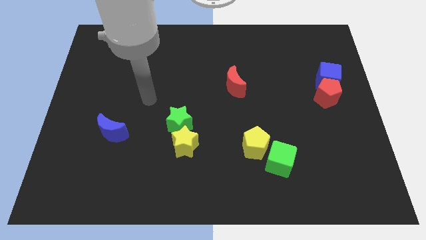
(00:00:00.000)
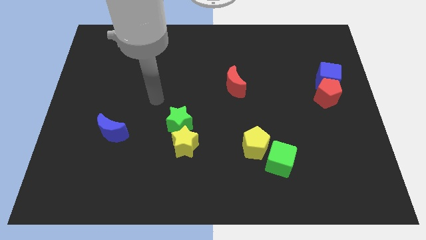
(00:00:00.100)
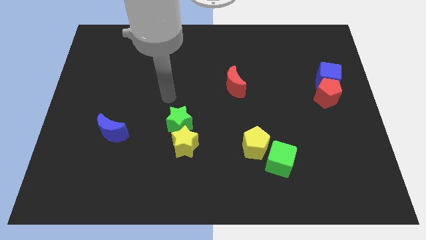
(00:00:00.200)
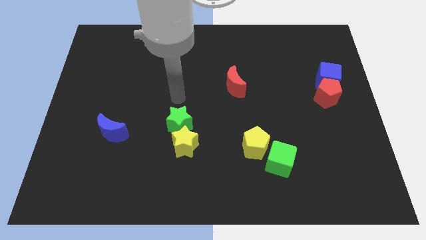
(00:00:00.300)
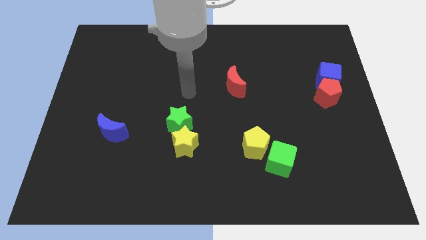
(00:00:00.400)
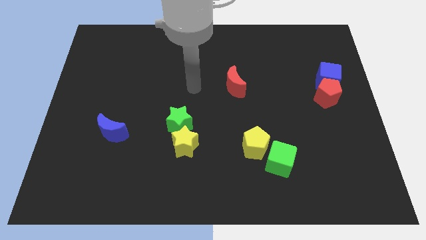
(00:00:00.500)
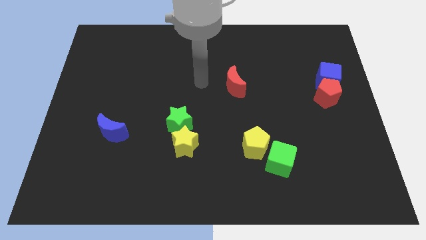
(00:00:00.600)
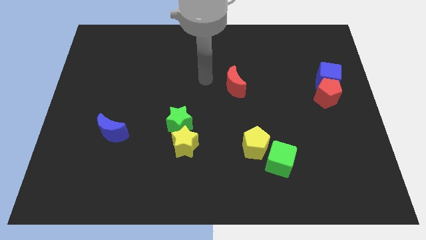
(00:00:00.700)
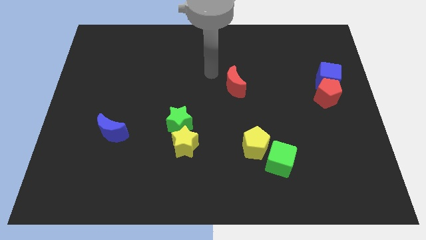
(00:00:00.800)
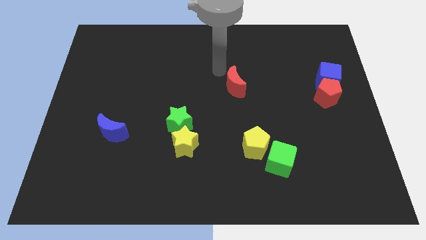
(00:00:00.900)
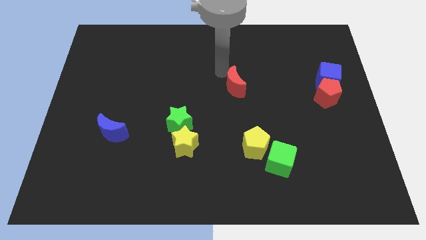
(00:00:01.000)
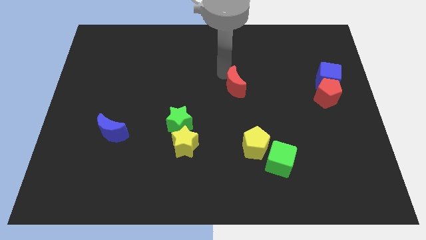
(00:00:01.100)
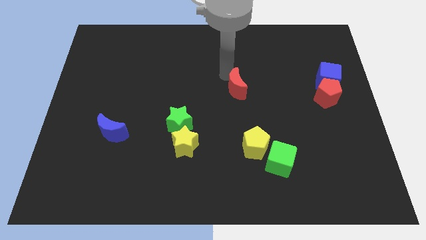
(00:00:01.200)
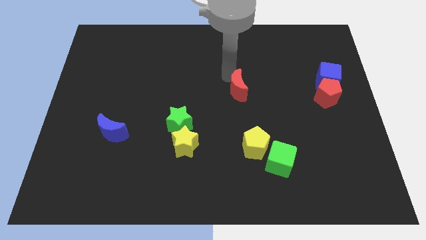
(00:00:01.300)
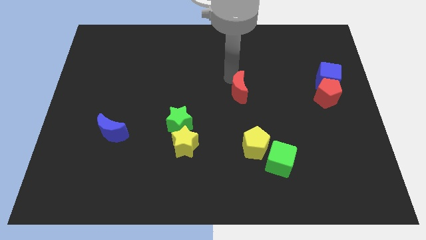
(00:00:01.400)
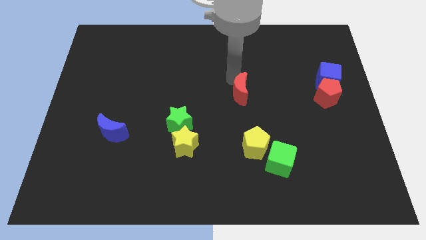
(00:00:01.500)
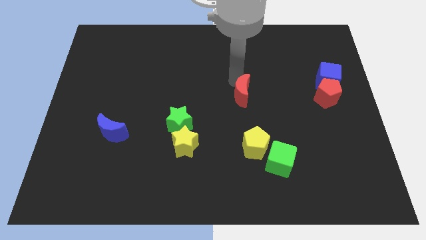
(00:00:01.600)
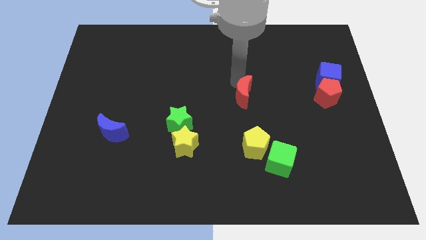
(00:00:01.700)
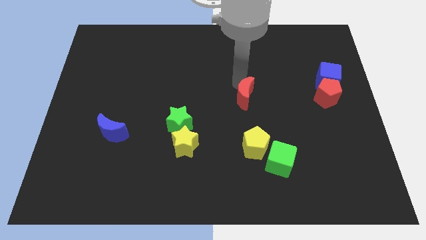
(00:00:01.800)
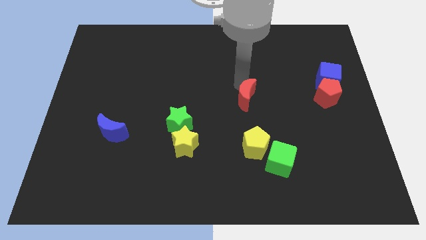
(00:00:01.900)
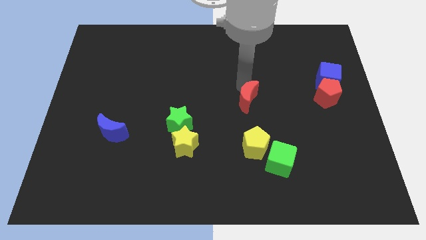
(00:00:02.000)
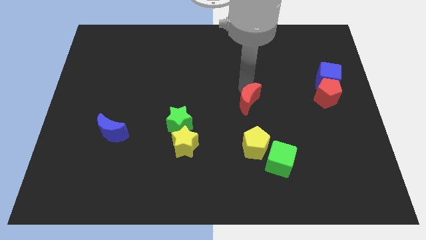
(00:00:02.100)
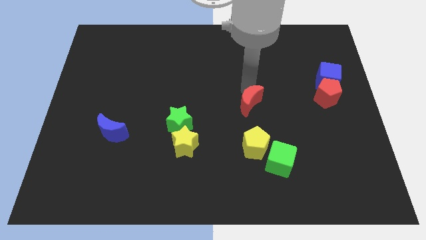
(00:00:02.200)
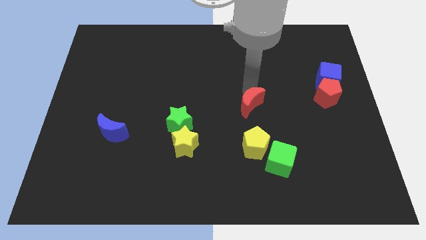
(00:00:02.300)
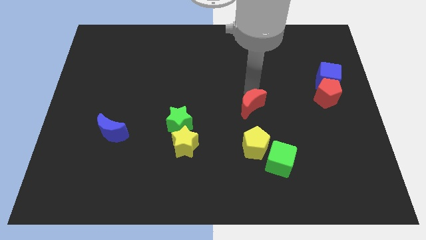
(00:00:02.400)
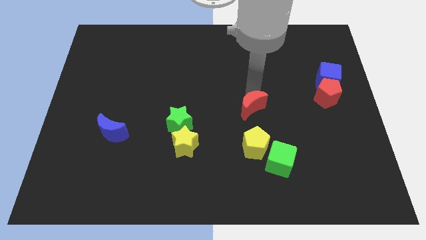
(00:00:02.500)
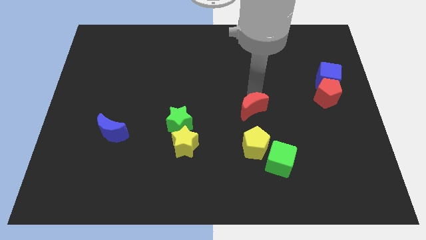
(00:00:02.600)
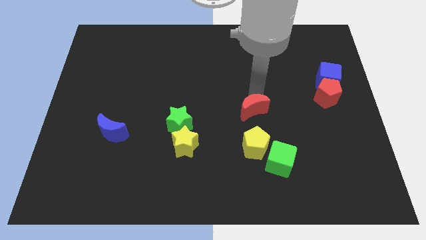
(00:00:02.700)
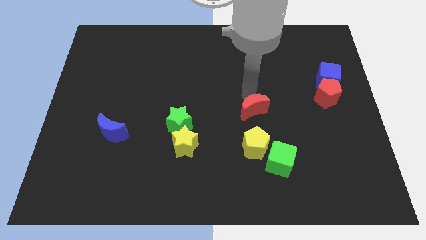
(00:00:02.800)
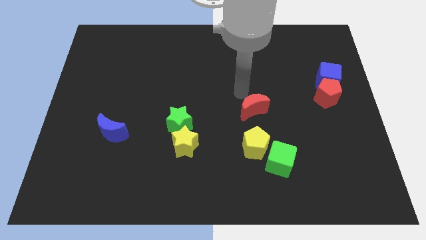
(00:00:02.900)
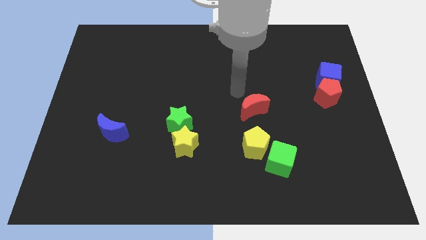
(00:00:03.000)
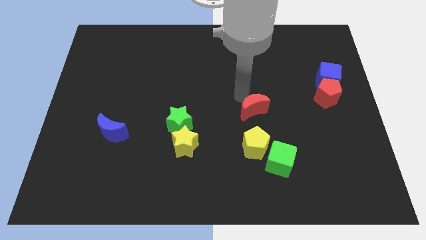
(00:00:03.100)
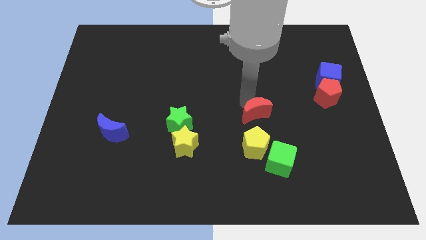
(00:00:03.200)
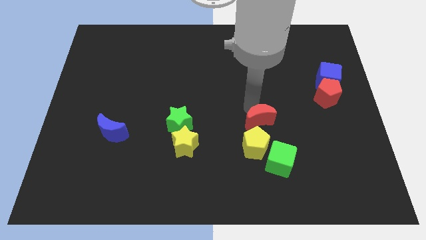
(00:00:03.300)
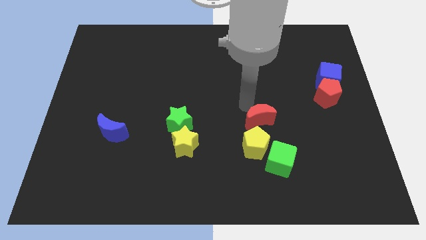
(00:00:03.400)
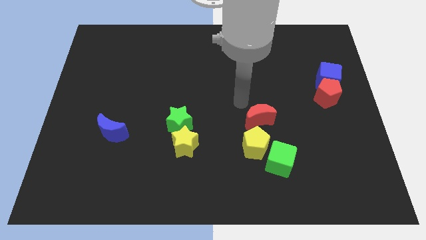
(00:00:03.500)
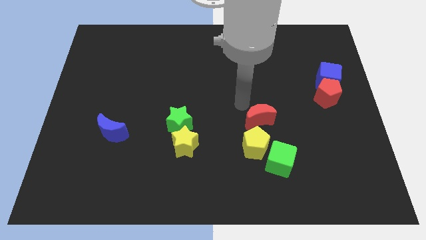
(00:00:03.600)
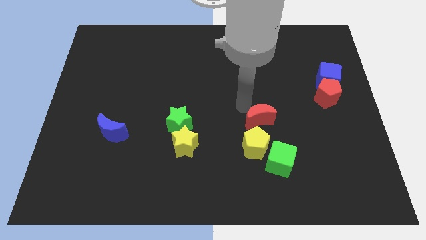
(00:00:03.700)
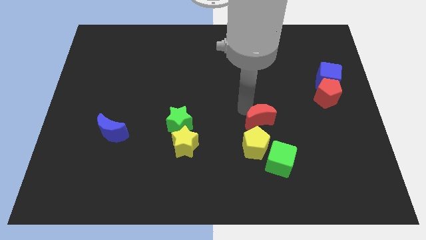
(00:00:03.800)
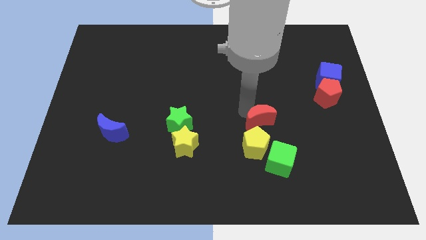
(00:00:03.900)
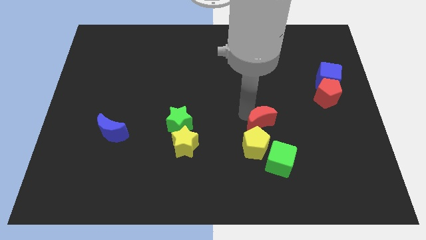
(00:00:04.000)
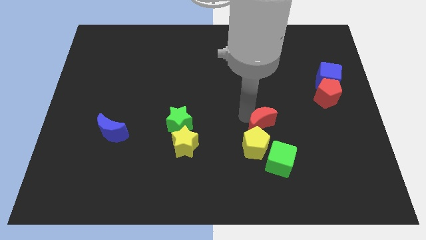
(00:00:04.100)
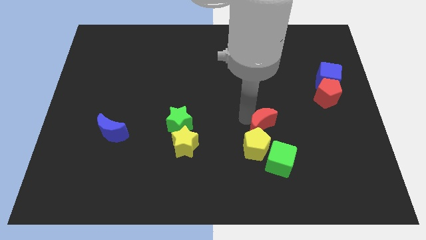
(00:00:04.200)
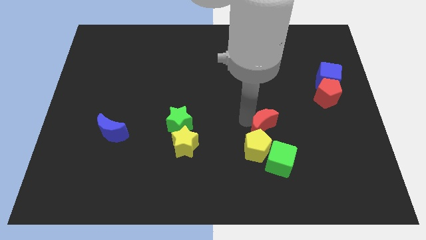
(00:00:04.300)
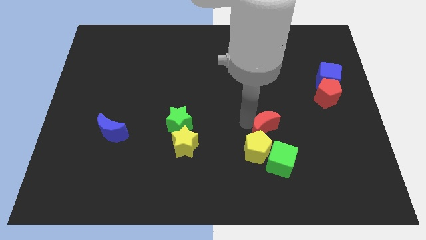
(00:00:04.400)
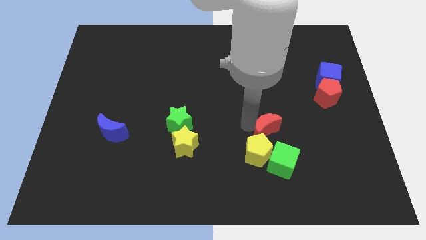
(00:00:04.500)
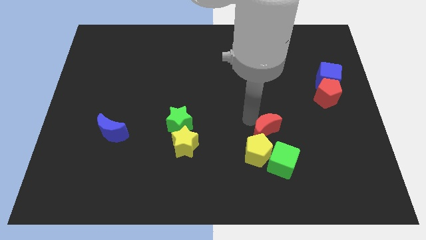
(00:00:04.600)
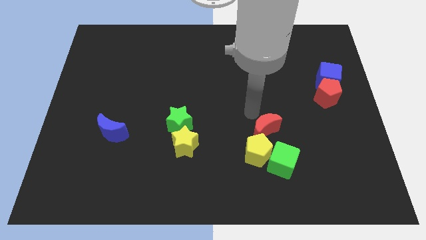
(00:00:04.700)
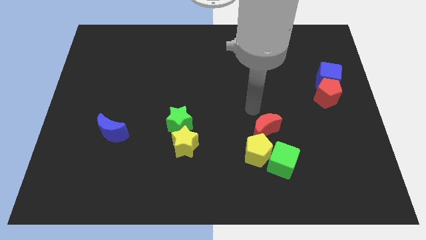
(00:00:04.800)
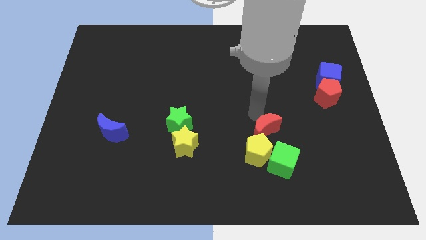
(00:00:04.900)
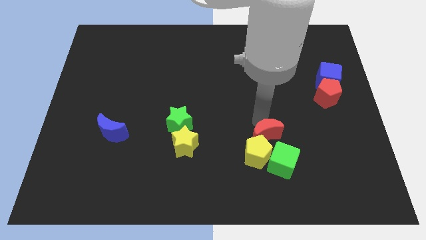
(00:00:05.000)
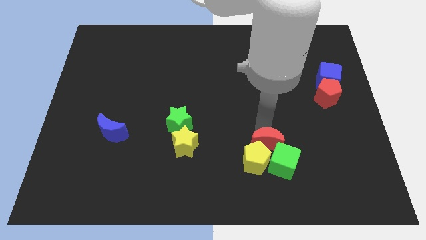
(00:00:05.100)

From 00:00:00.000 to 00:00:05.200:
push the red moon to the green cube

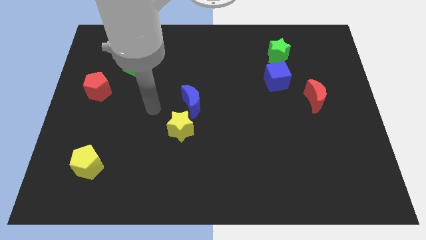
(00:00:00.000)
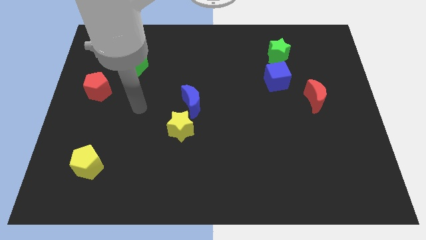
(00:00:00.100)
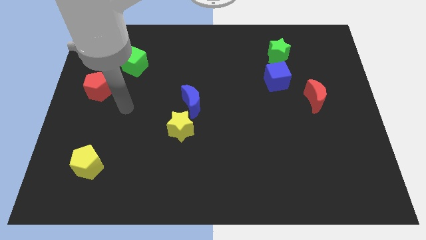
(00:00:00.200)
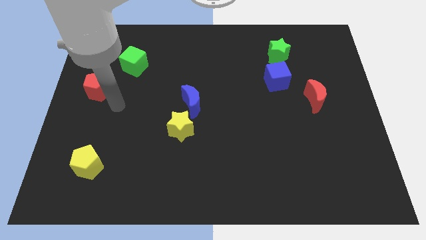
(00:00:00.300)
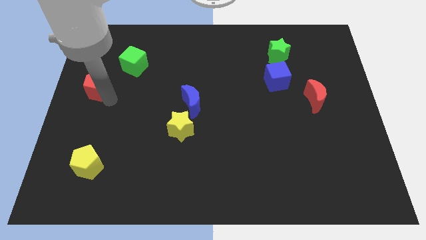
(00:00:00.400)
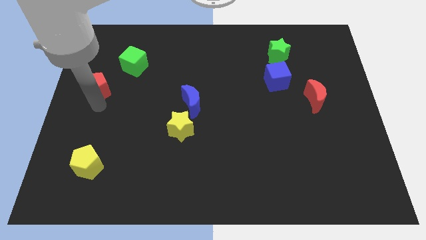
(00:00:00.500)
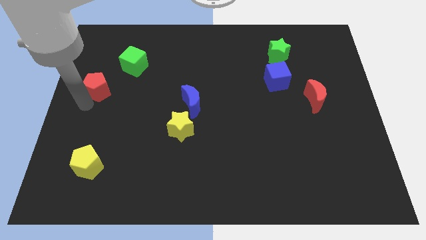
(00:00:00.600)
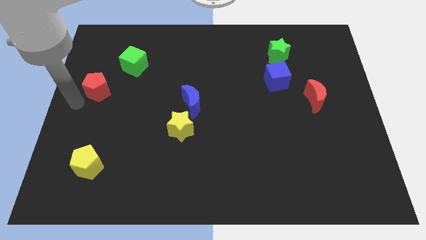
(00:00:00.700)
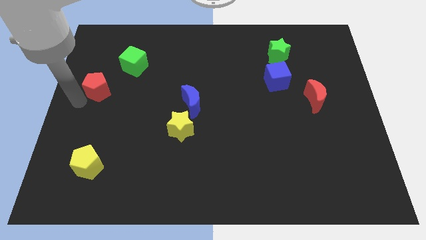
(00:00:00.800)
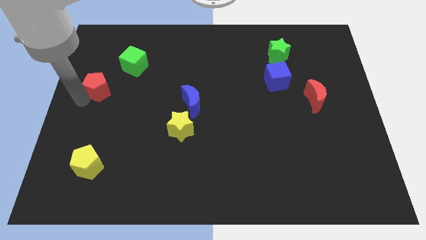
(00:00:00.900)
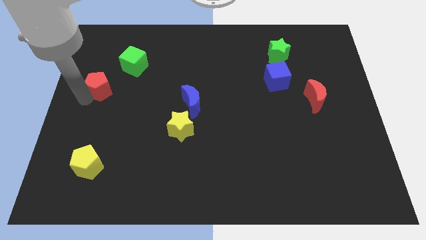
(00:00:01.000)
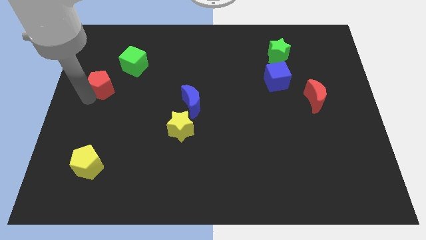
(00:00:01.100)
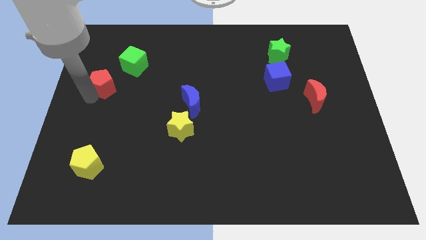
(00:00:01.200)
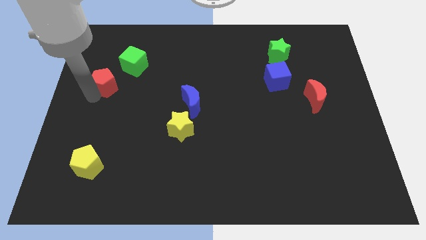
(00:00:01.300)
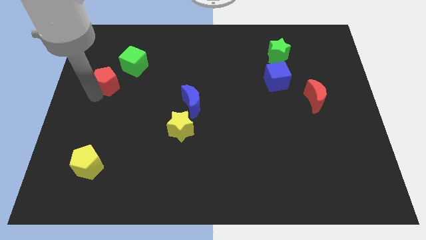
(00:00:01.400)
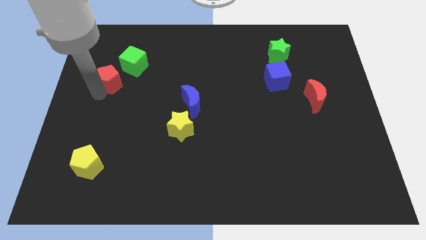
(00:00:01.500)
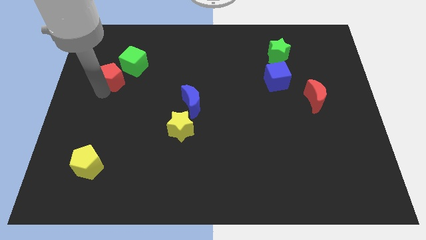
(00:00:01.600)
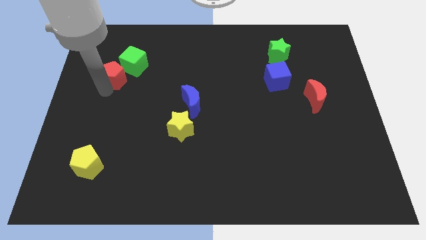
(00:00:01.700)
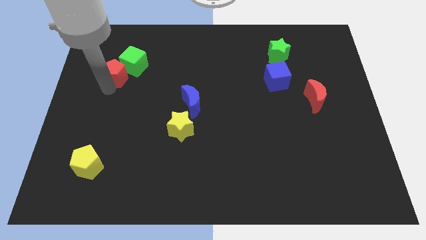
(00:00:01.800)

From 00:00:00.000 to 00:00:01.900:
put the red pentagon next to the green cube
